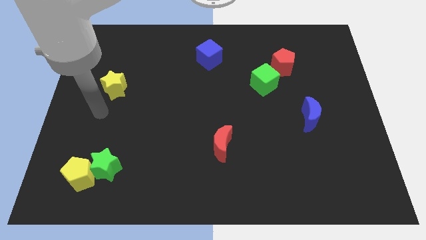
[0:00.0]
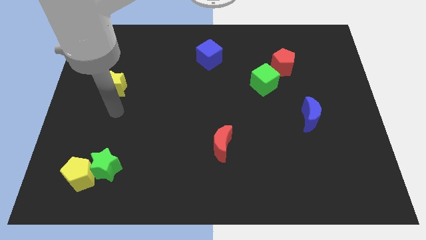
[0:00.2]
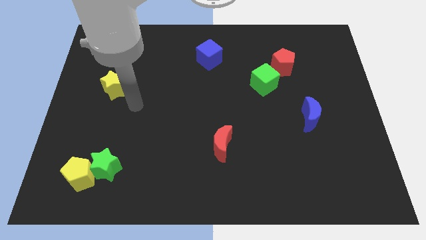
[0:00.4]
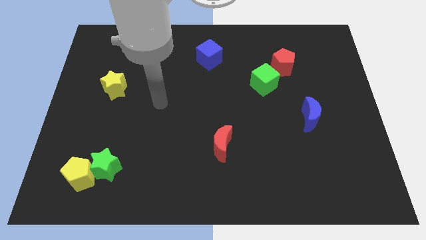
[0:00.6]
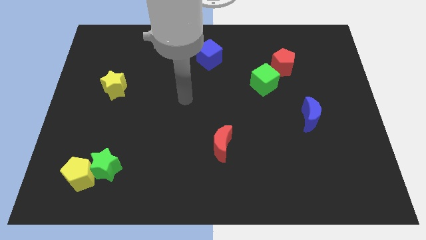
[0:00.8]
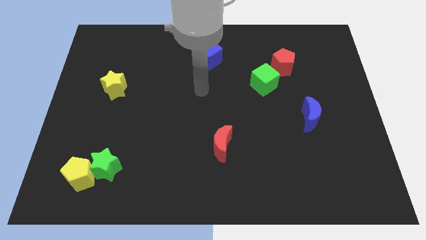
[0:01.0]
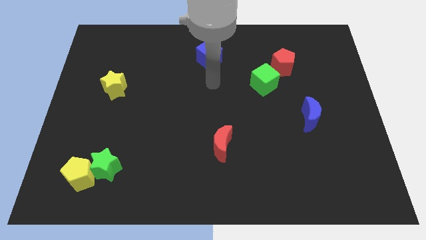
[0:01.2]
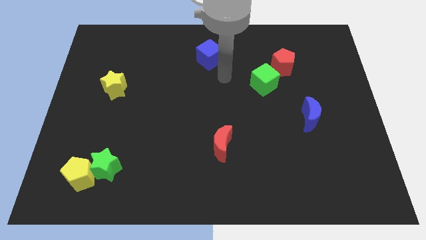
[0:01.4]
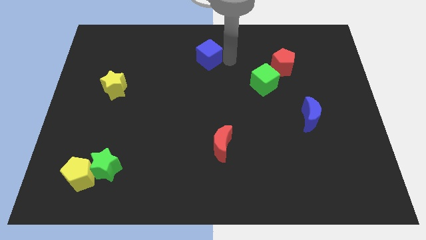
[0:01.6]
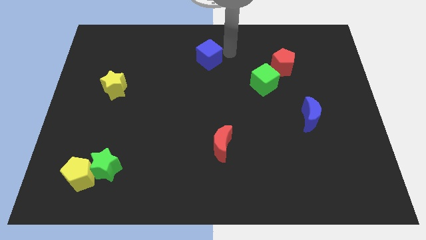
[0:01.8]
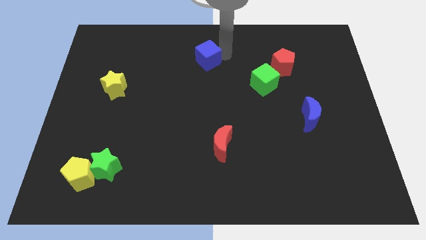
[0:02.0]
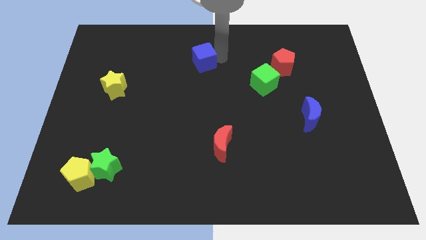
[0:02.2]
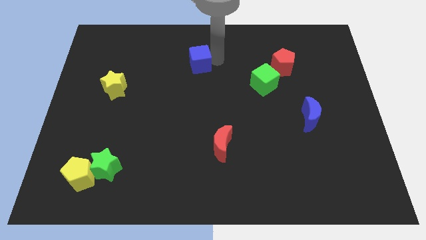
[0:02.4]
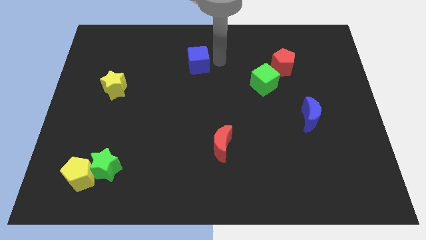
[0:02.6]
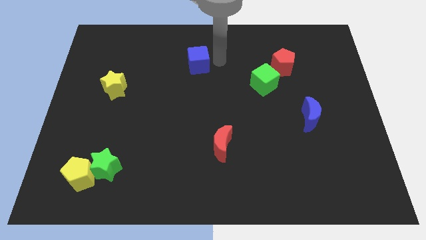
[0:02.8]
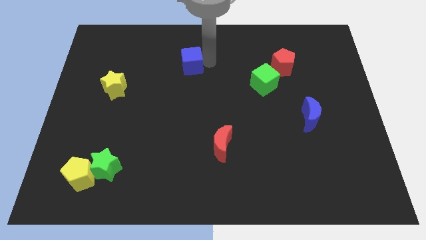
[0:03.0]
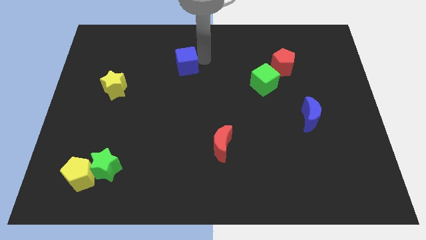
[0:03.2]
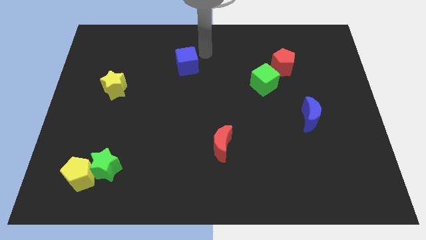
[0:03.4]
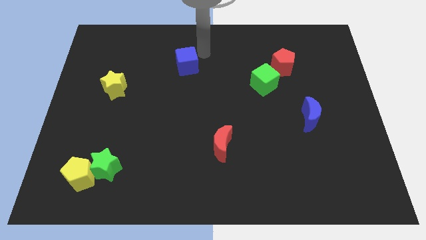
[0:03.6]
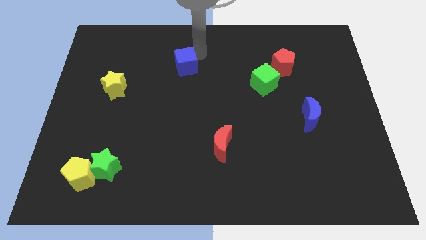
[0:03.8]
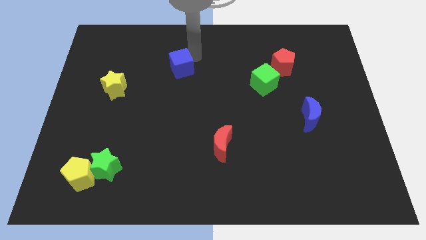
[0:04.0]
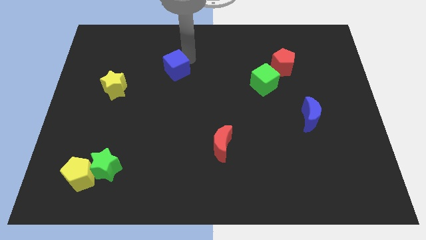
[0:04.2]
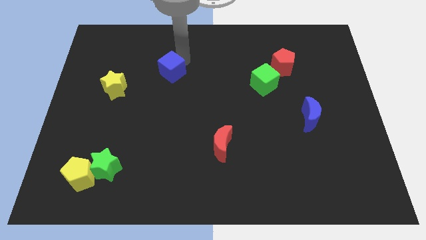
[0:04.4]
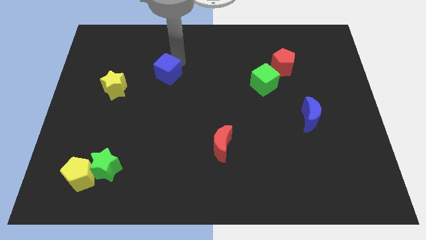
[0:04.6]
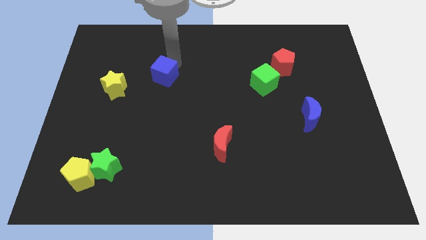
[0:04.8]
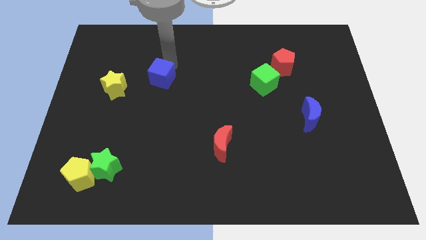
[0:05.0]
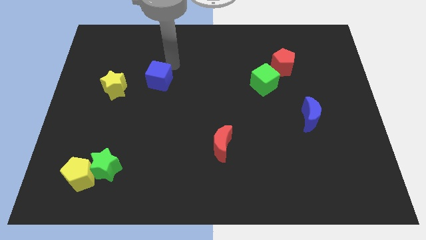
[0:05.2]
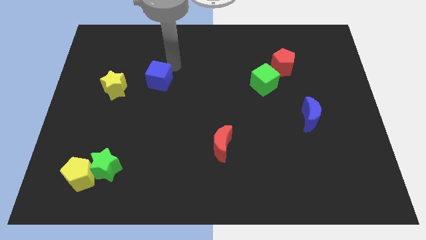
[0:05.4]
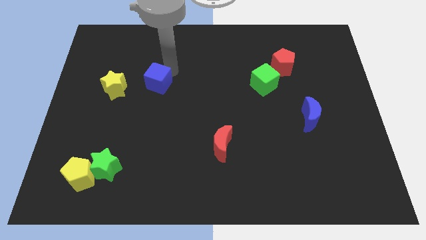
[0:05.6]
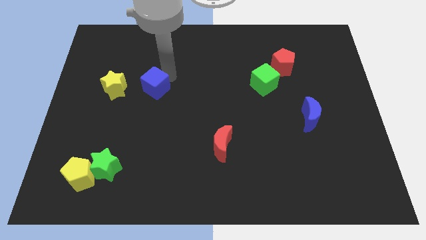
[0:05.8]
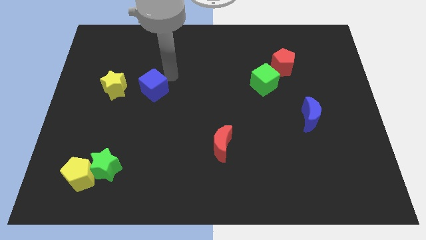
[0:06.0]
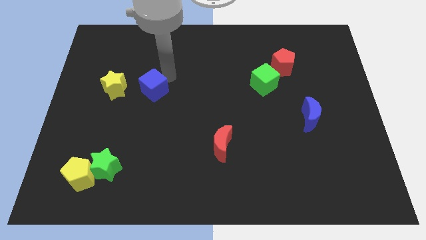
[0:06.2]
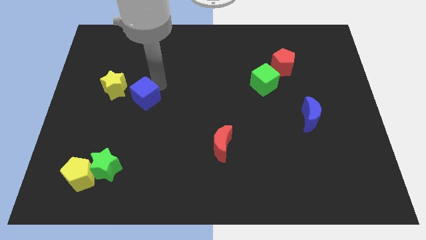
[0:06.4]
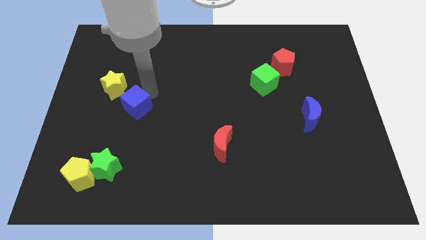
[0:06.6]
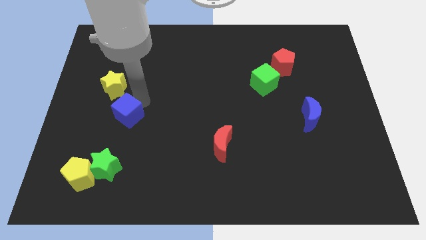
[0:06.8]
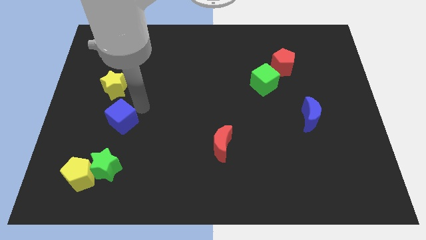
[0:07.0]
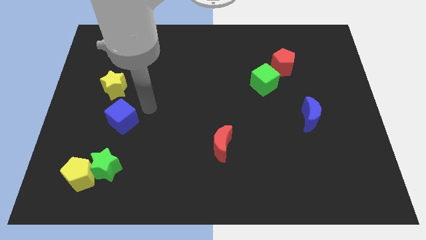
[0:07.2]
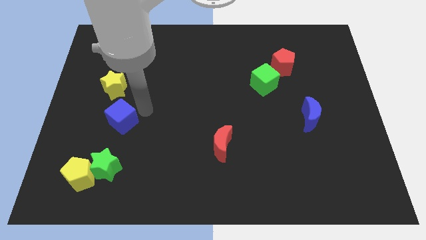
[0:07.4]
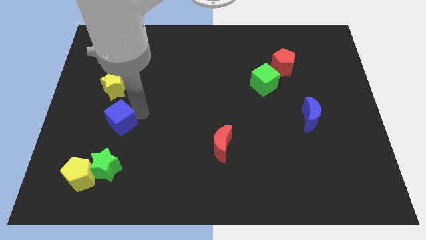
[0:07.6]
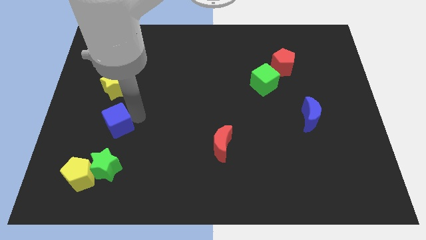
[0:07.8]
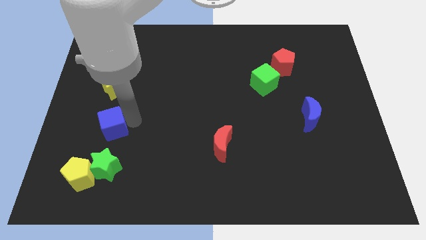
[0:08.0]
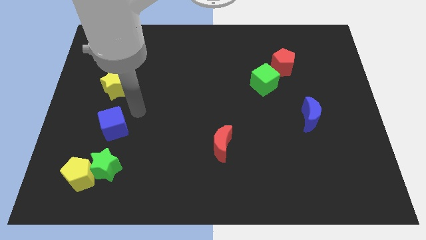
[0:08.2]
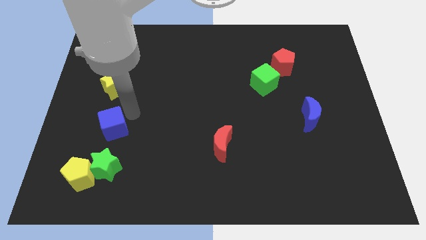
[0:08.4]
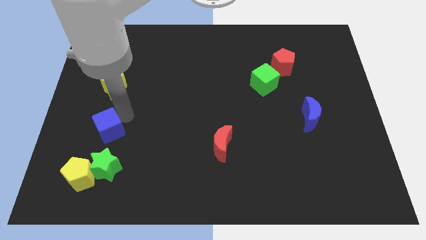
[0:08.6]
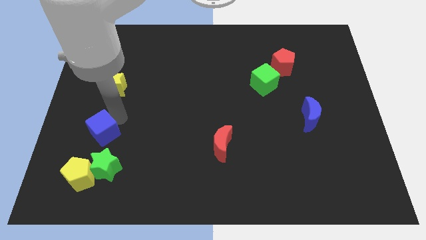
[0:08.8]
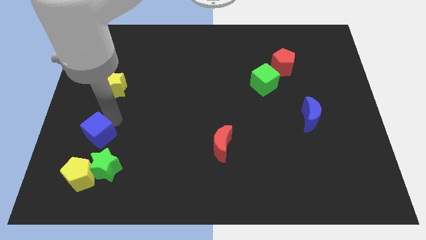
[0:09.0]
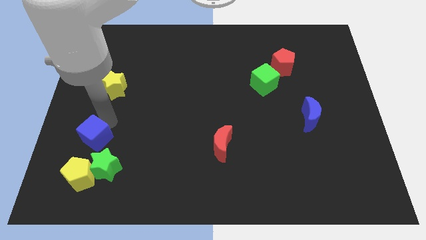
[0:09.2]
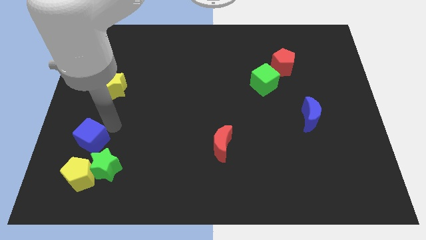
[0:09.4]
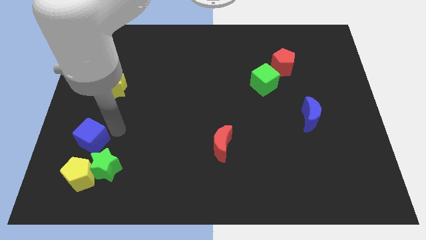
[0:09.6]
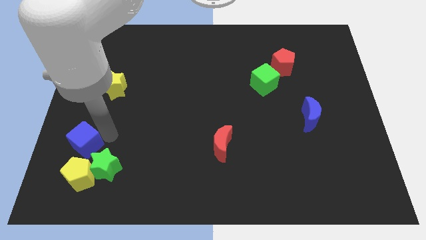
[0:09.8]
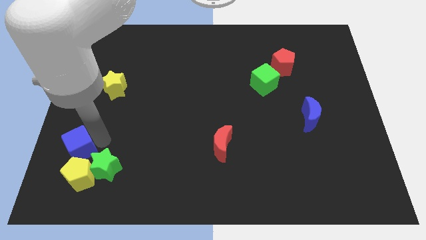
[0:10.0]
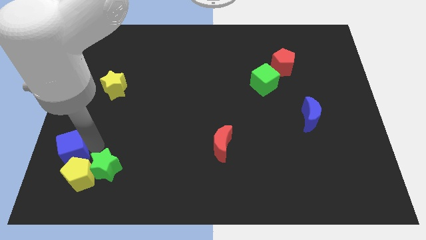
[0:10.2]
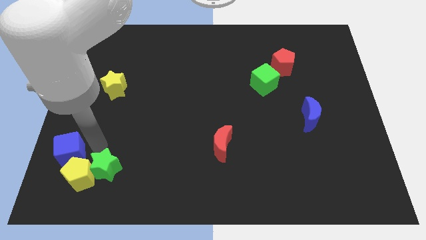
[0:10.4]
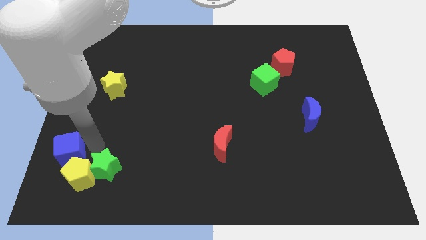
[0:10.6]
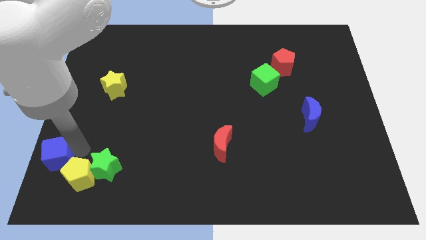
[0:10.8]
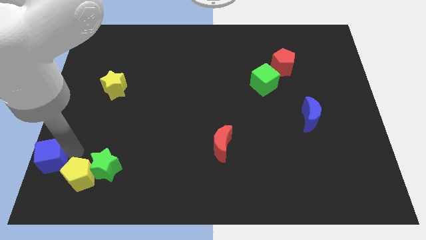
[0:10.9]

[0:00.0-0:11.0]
put the blue cube to the bottom left
